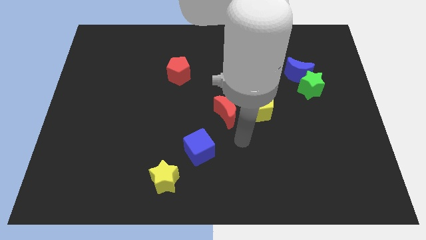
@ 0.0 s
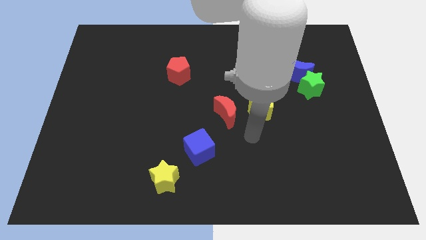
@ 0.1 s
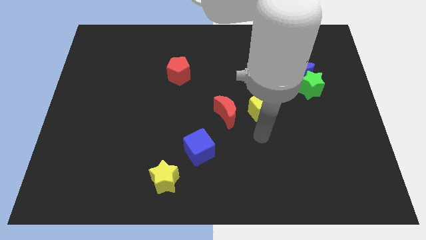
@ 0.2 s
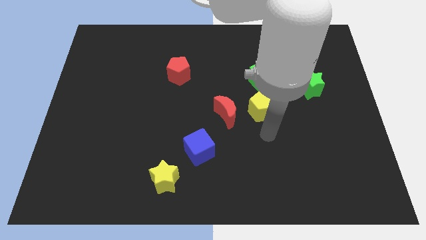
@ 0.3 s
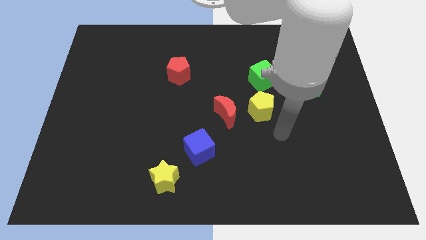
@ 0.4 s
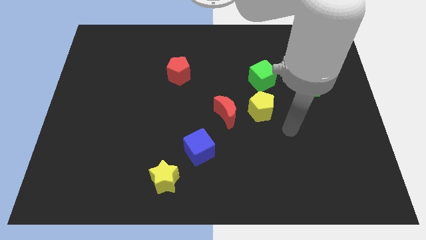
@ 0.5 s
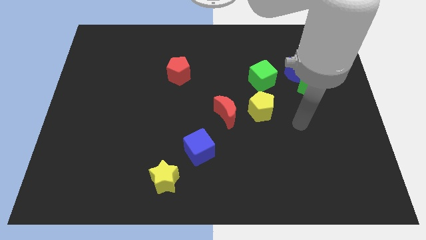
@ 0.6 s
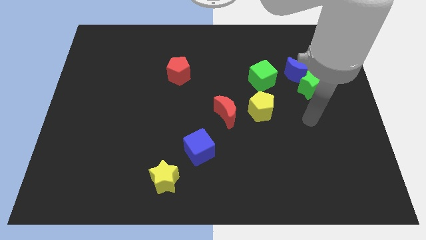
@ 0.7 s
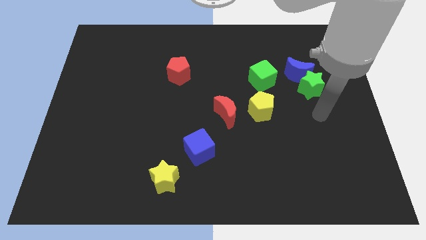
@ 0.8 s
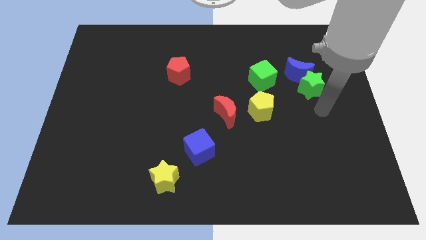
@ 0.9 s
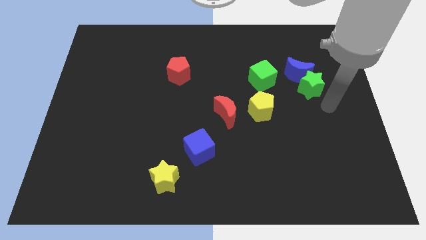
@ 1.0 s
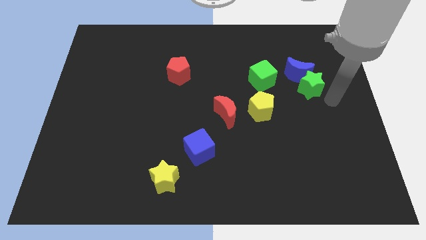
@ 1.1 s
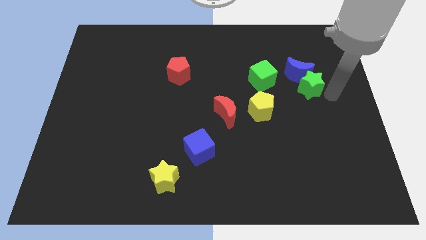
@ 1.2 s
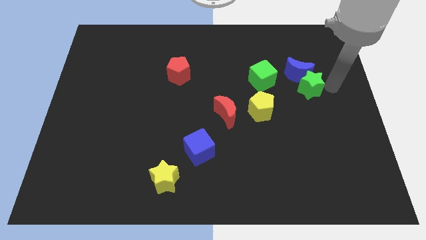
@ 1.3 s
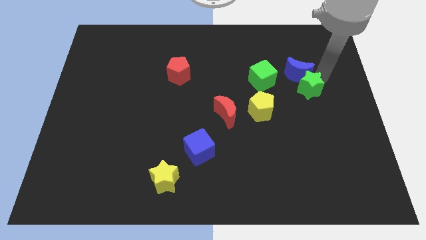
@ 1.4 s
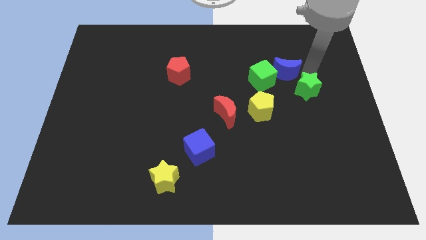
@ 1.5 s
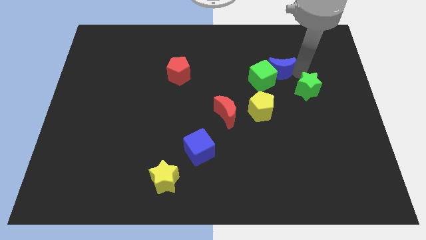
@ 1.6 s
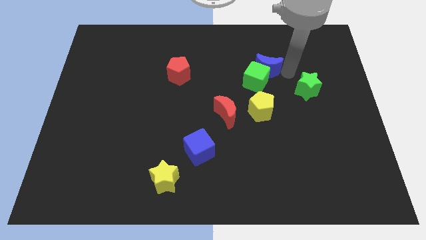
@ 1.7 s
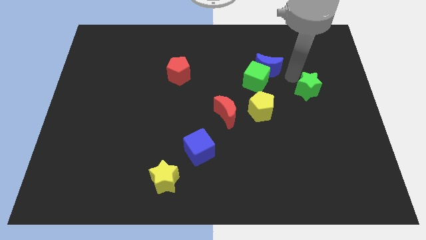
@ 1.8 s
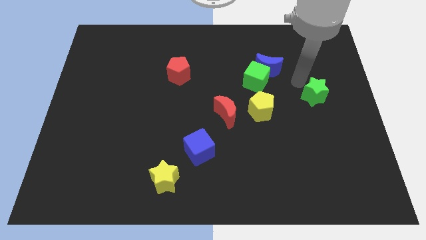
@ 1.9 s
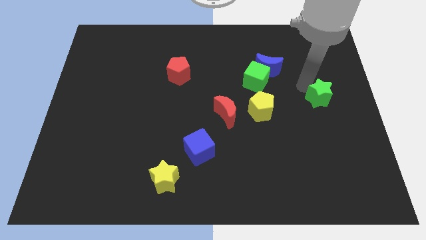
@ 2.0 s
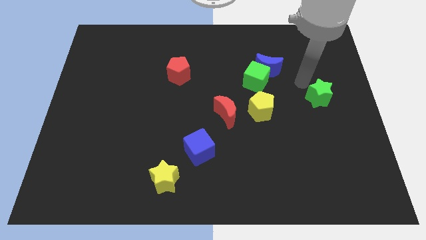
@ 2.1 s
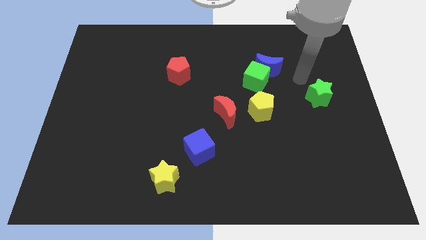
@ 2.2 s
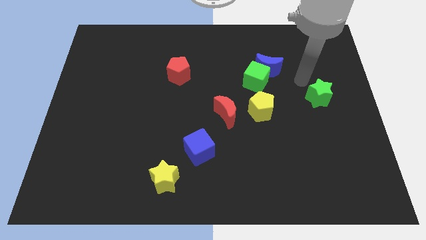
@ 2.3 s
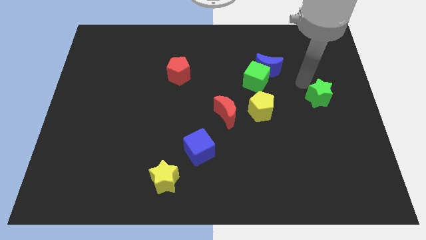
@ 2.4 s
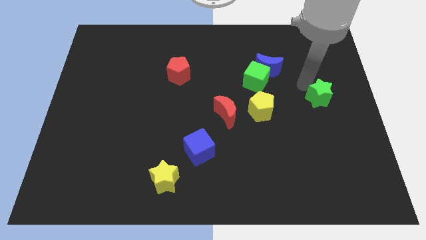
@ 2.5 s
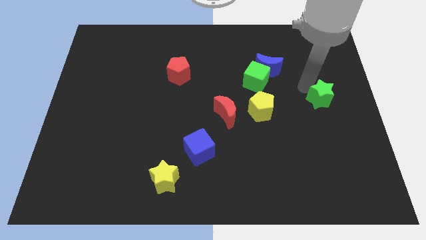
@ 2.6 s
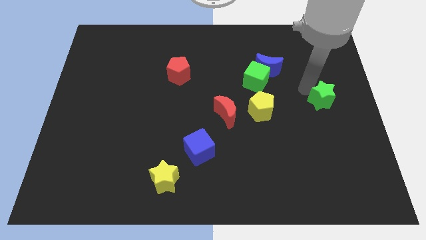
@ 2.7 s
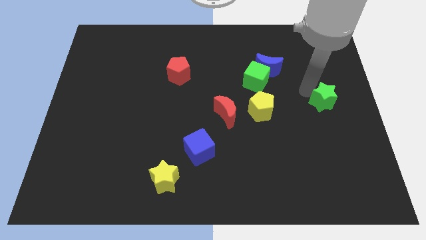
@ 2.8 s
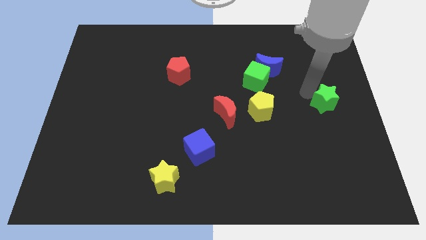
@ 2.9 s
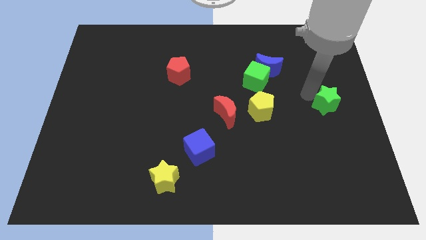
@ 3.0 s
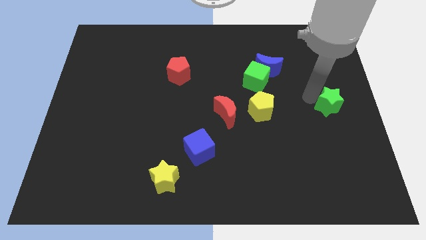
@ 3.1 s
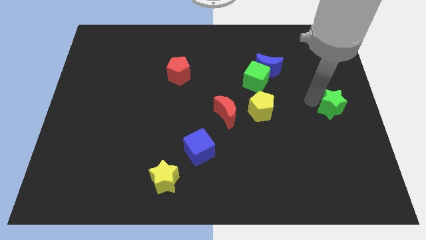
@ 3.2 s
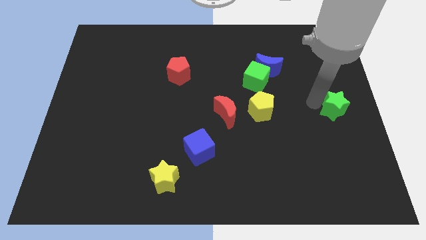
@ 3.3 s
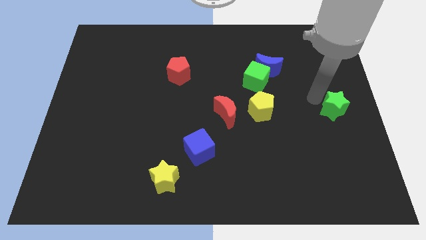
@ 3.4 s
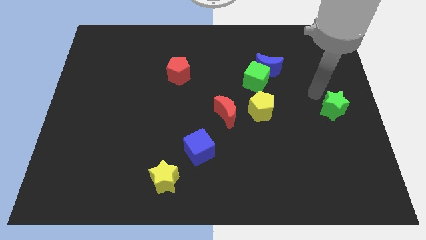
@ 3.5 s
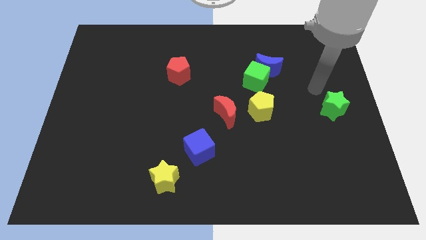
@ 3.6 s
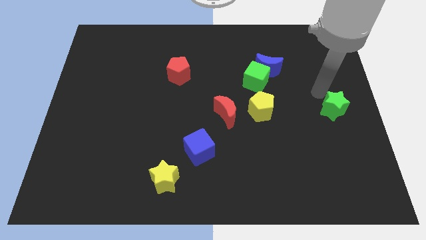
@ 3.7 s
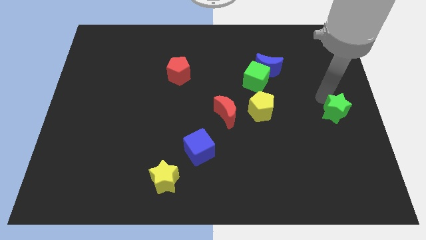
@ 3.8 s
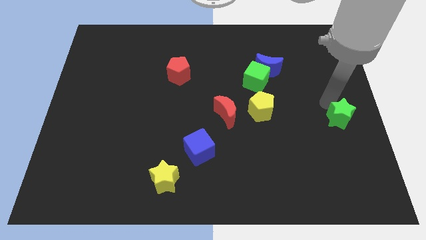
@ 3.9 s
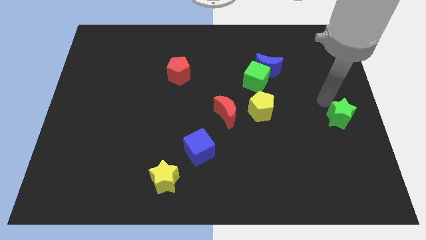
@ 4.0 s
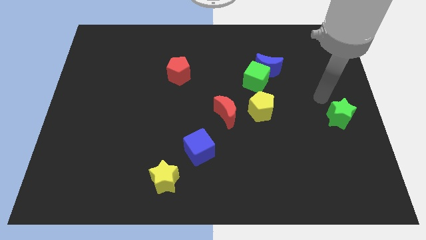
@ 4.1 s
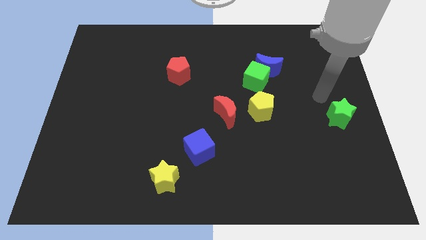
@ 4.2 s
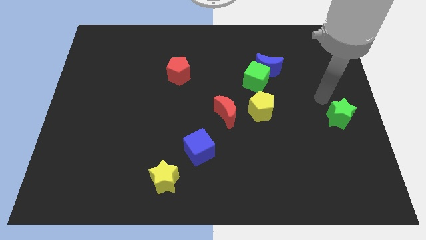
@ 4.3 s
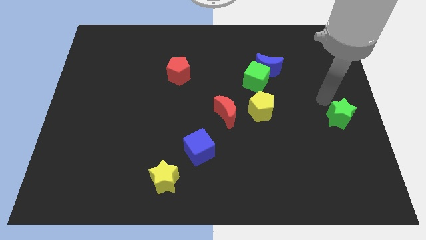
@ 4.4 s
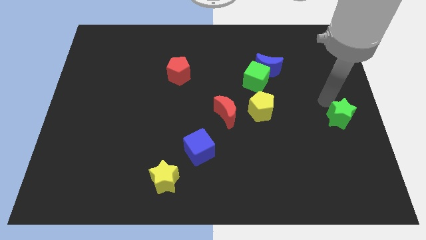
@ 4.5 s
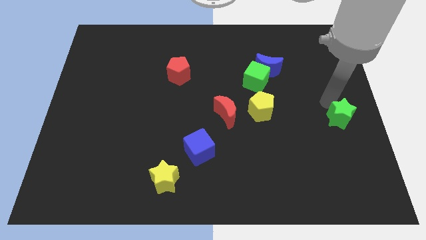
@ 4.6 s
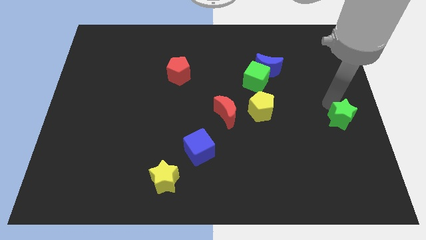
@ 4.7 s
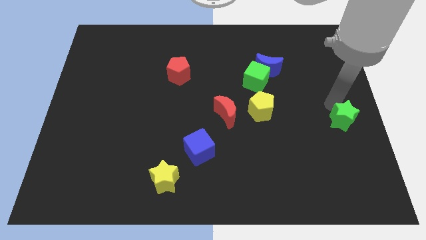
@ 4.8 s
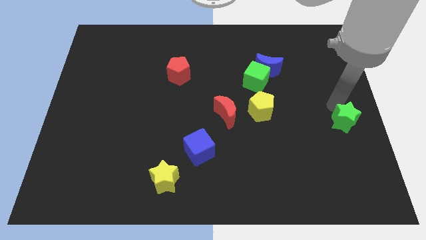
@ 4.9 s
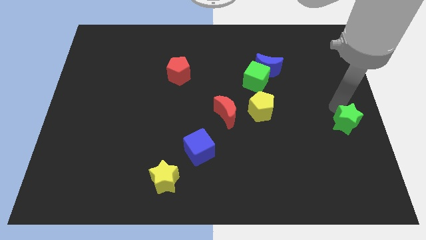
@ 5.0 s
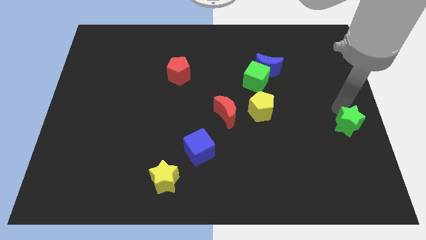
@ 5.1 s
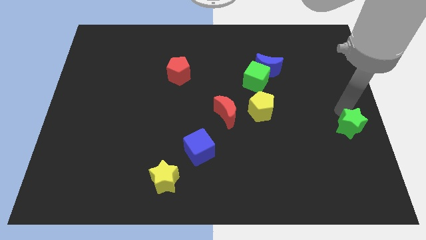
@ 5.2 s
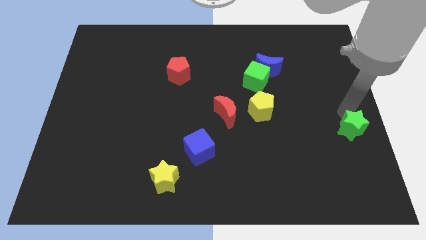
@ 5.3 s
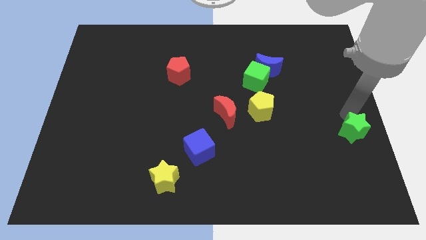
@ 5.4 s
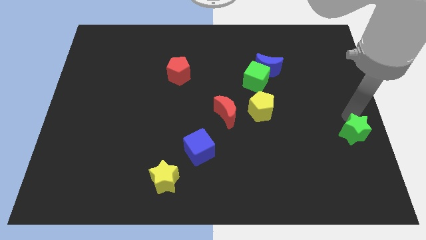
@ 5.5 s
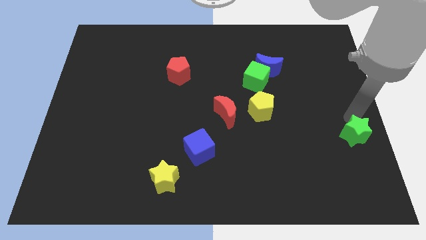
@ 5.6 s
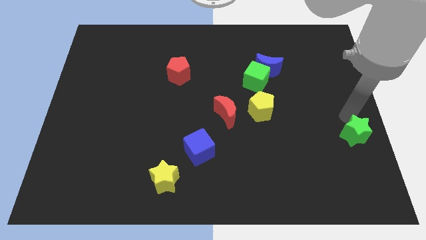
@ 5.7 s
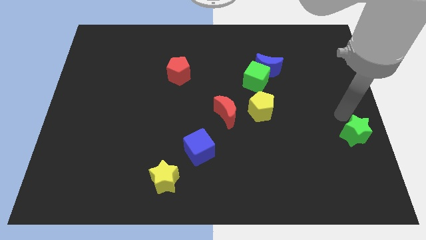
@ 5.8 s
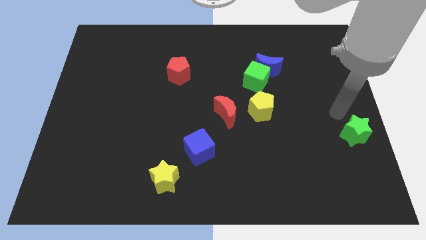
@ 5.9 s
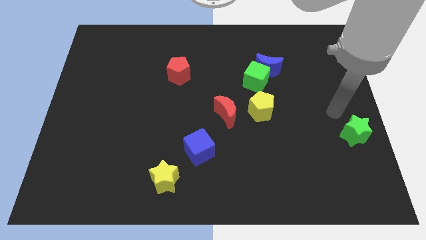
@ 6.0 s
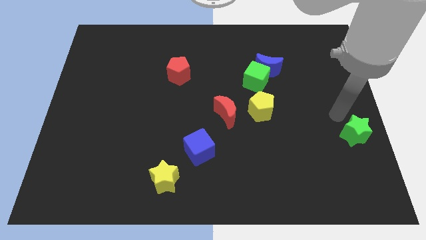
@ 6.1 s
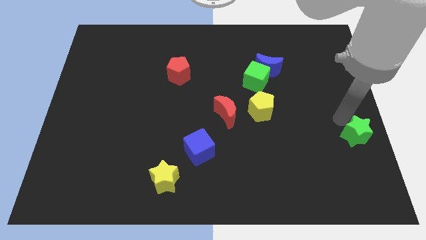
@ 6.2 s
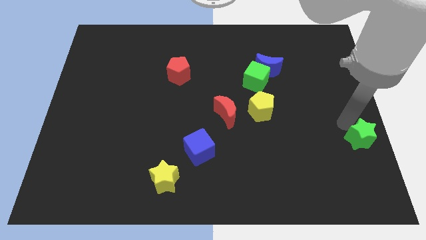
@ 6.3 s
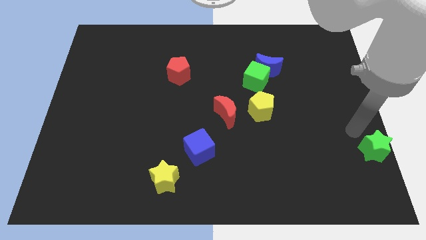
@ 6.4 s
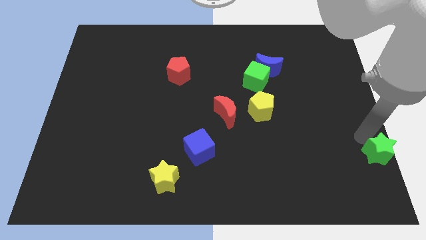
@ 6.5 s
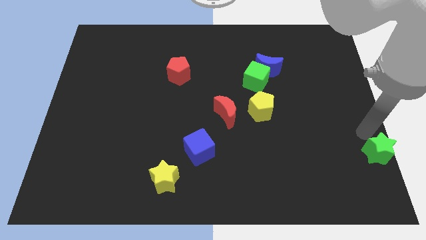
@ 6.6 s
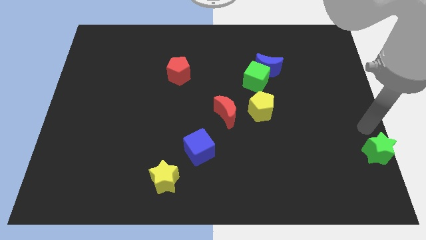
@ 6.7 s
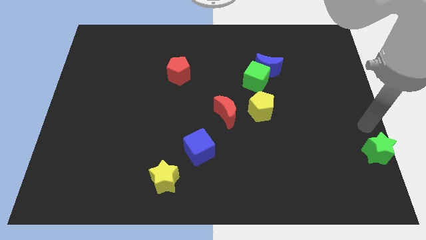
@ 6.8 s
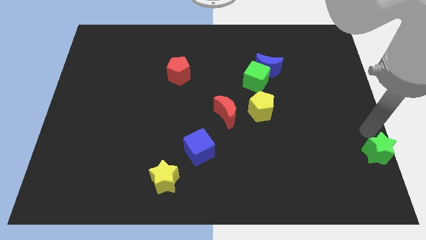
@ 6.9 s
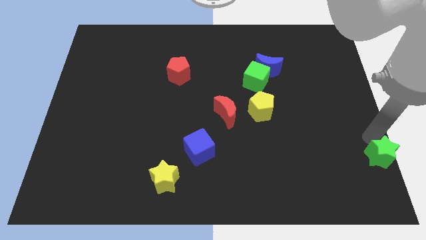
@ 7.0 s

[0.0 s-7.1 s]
slide the green star to the bottom right corner
